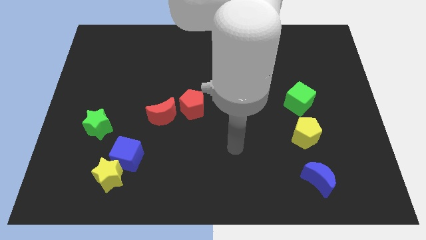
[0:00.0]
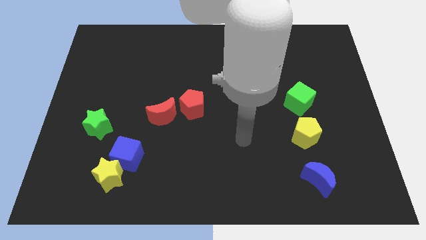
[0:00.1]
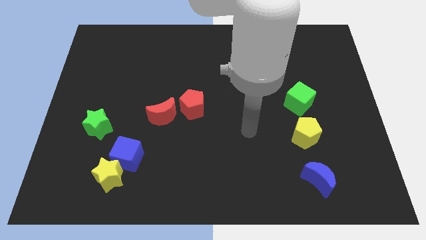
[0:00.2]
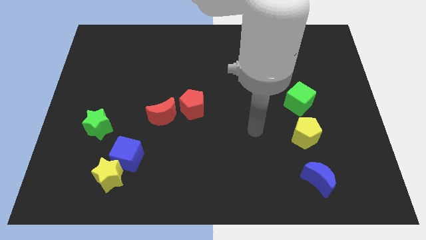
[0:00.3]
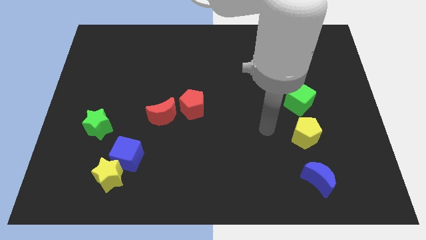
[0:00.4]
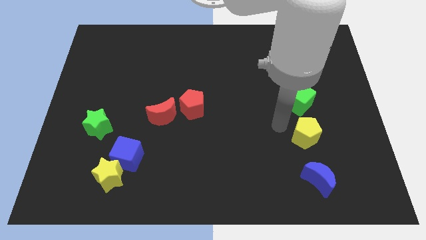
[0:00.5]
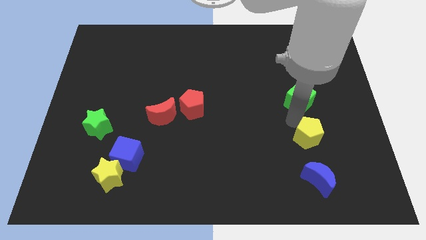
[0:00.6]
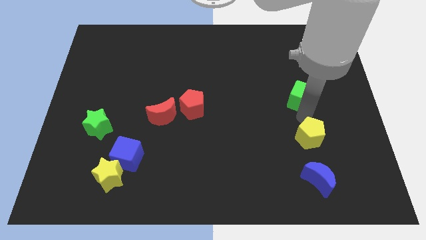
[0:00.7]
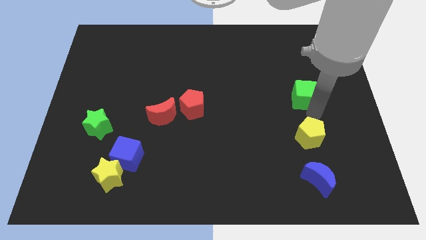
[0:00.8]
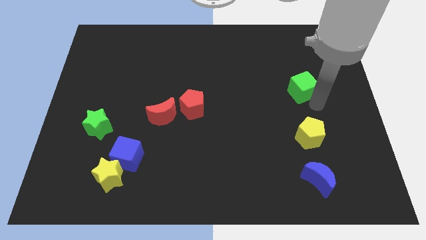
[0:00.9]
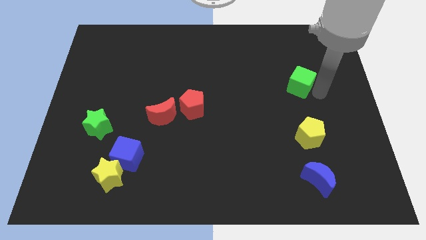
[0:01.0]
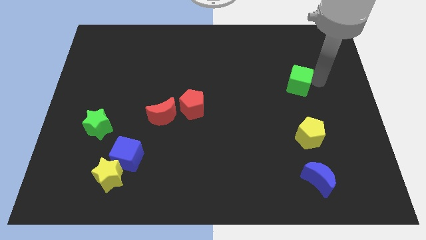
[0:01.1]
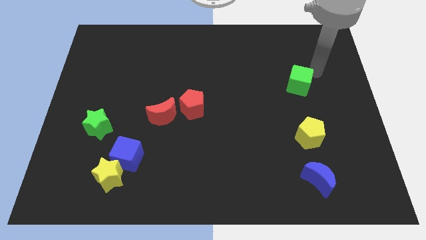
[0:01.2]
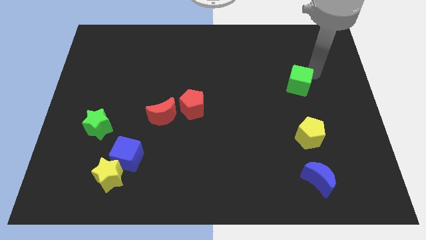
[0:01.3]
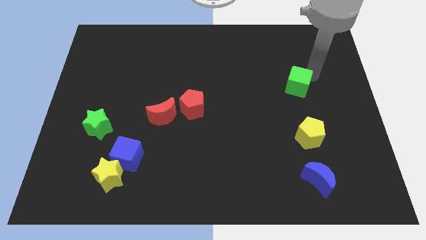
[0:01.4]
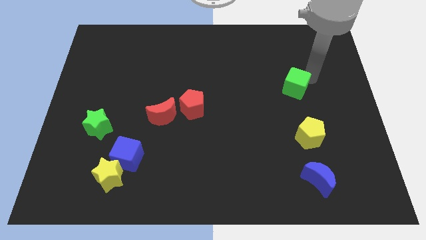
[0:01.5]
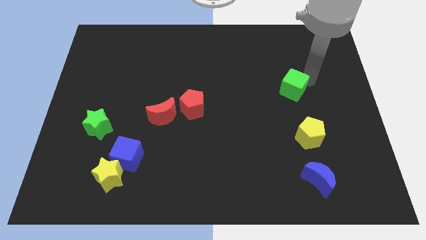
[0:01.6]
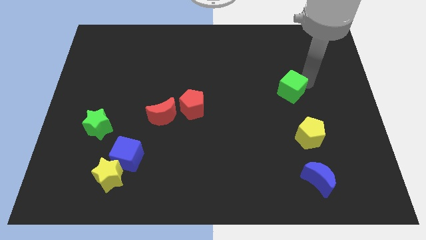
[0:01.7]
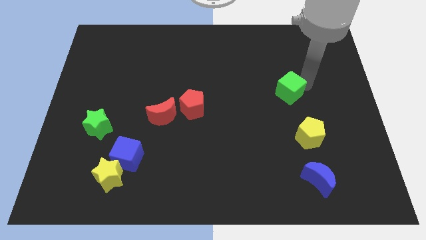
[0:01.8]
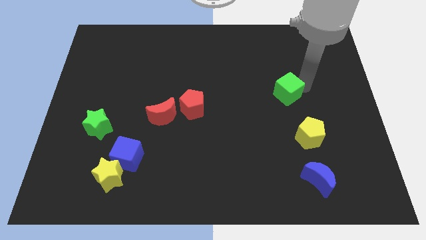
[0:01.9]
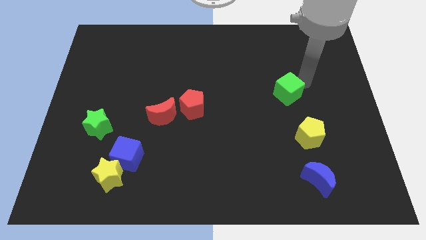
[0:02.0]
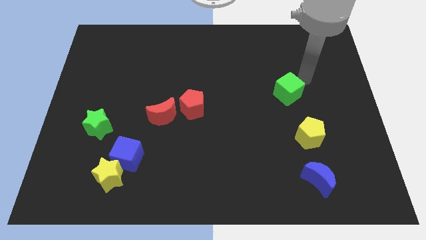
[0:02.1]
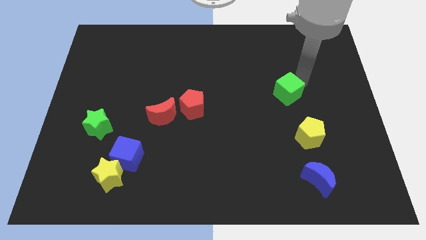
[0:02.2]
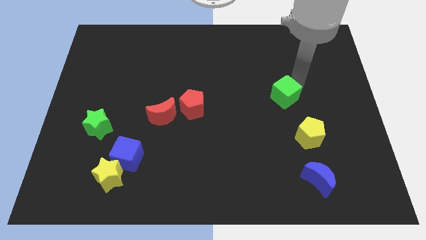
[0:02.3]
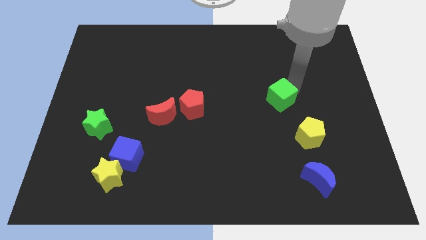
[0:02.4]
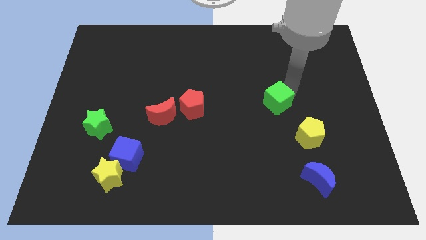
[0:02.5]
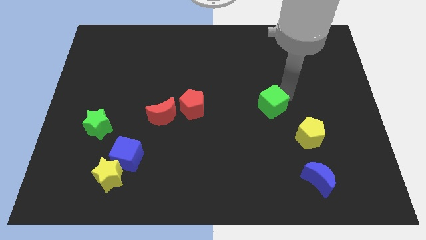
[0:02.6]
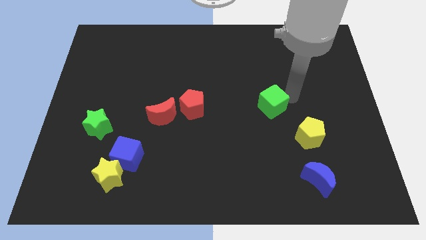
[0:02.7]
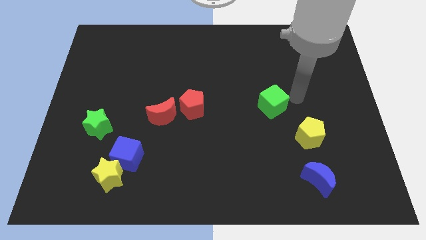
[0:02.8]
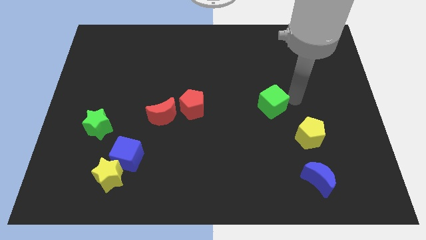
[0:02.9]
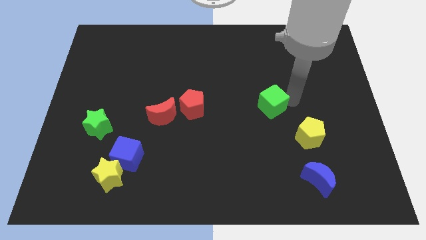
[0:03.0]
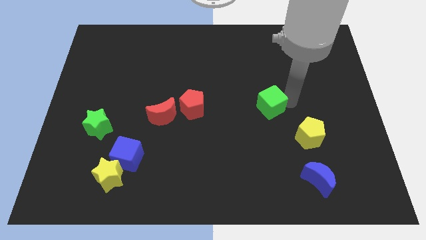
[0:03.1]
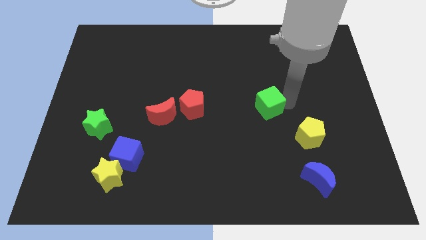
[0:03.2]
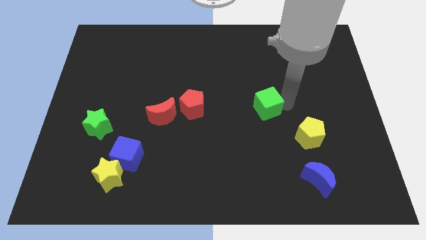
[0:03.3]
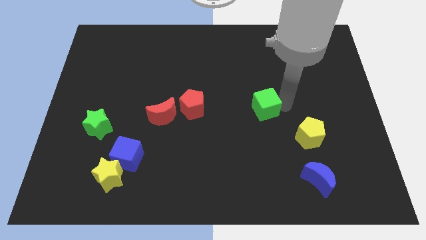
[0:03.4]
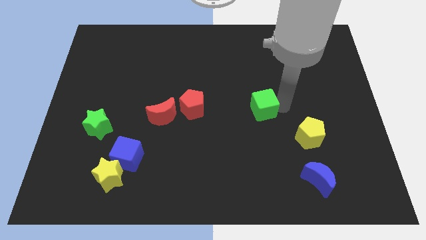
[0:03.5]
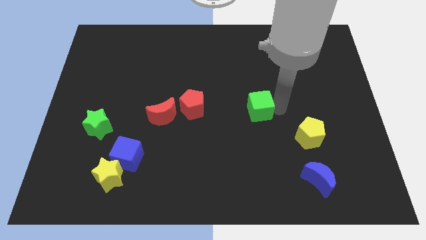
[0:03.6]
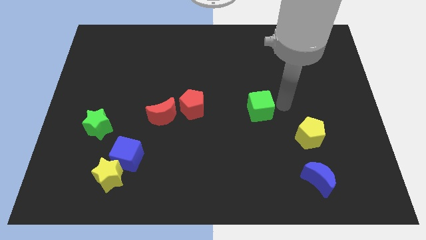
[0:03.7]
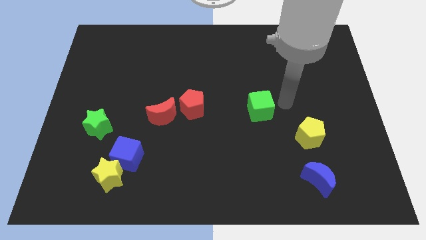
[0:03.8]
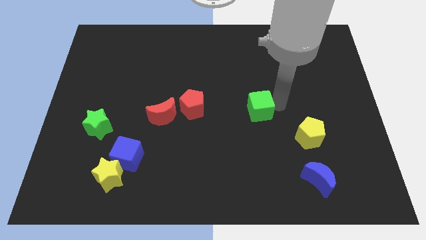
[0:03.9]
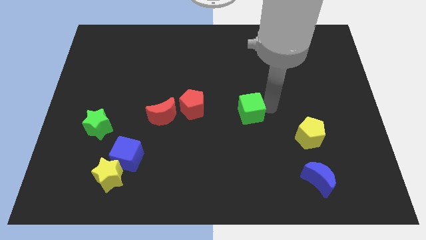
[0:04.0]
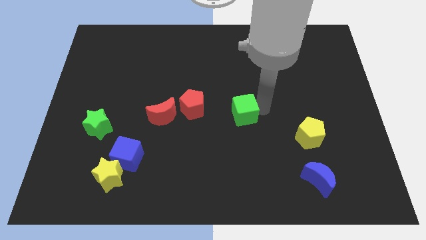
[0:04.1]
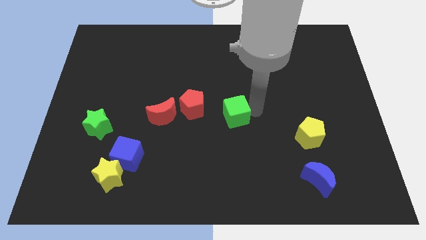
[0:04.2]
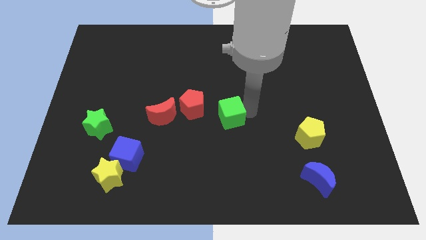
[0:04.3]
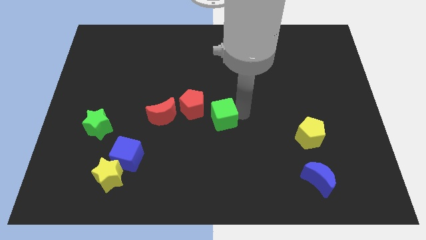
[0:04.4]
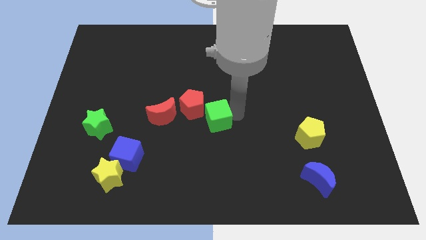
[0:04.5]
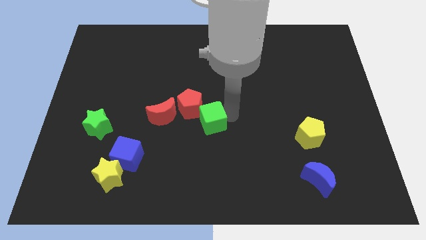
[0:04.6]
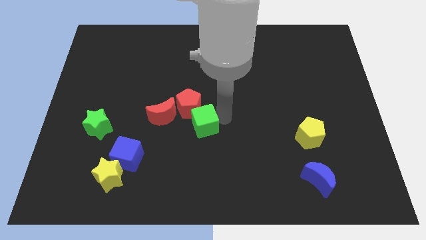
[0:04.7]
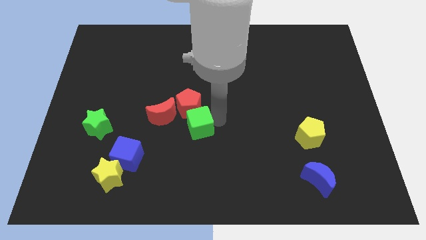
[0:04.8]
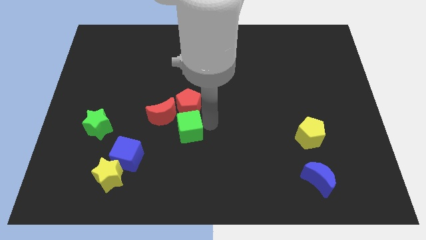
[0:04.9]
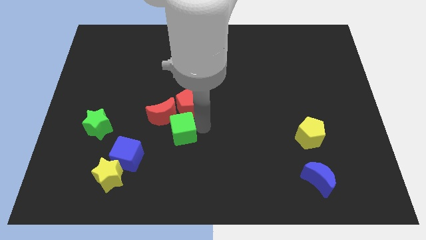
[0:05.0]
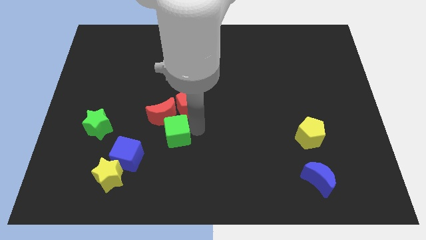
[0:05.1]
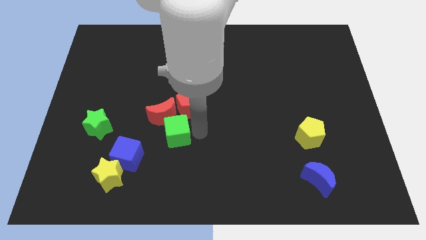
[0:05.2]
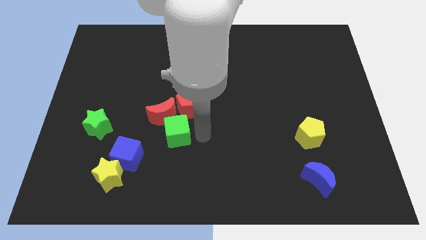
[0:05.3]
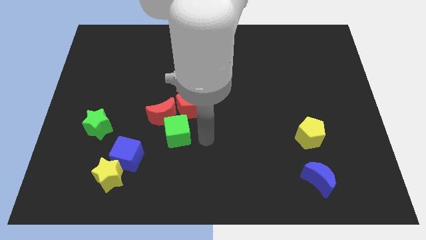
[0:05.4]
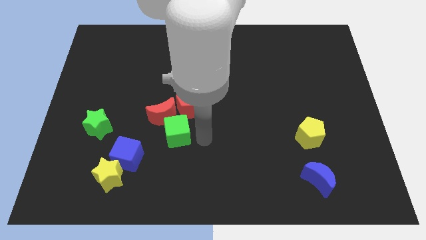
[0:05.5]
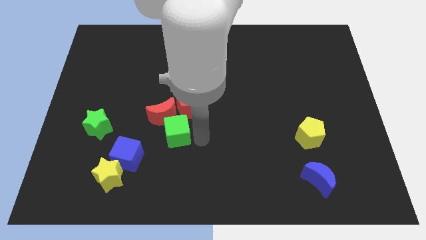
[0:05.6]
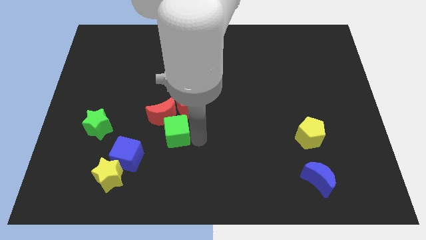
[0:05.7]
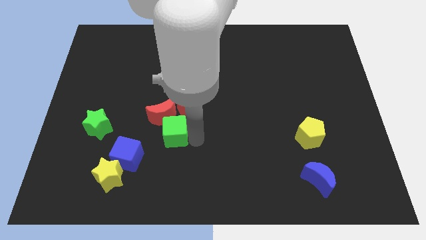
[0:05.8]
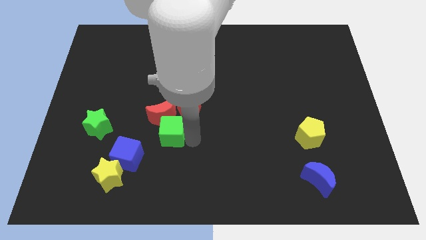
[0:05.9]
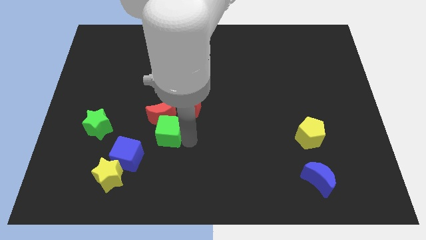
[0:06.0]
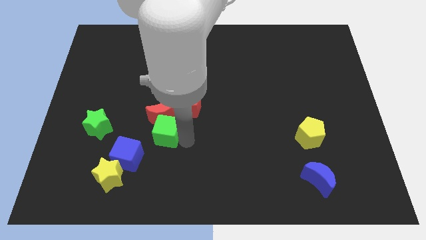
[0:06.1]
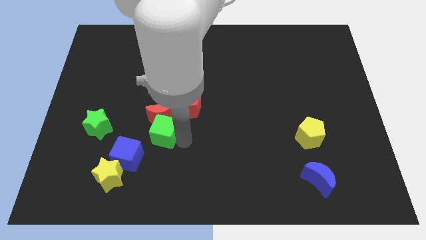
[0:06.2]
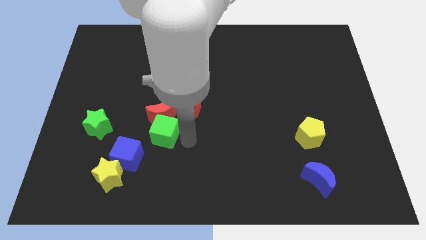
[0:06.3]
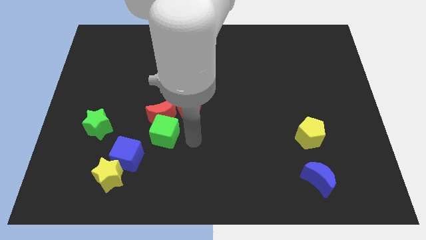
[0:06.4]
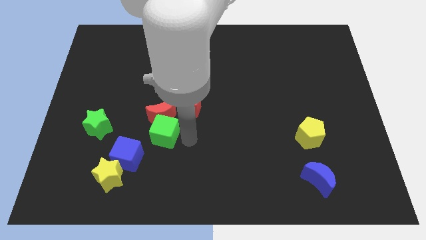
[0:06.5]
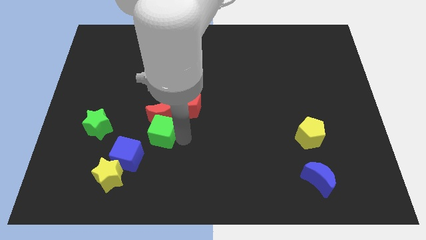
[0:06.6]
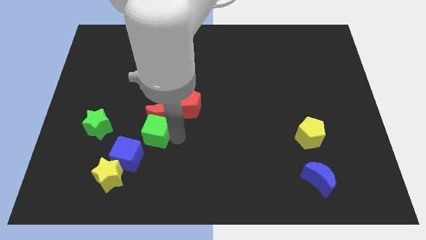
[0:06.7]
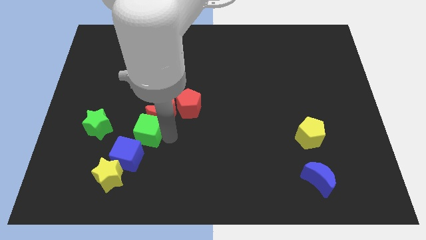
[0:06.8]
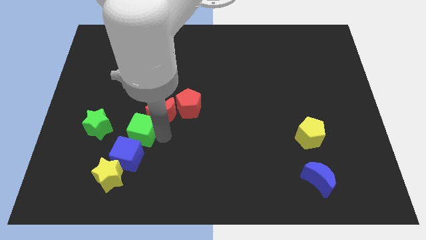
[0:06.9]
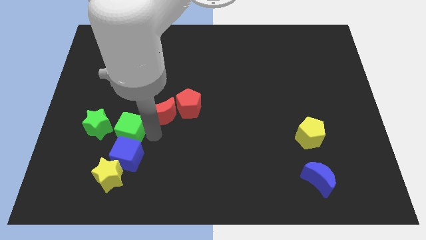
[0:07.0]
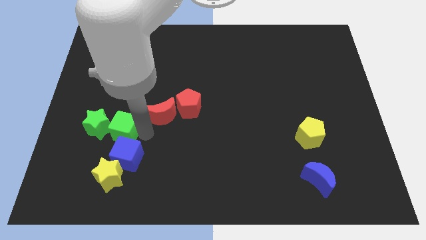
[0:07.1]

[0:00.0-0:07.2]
push the green cube to the green star
